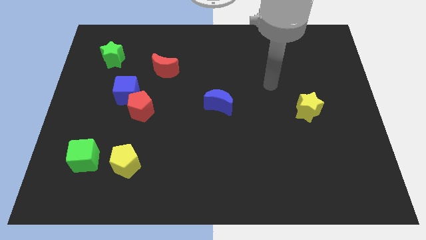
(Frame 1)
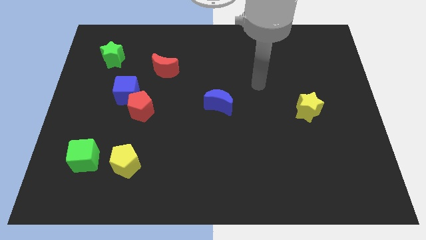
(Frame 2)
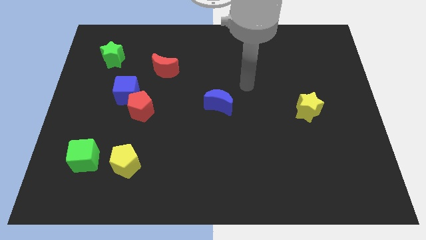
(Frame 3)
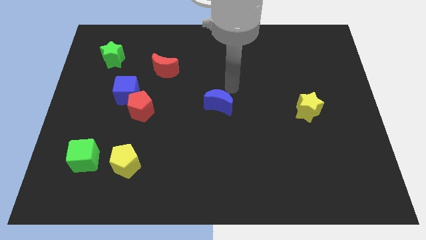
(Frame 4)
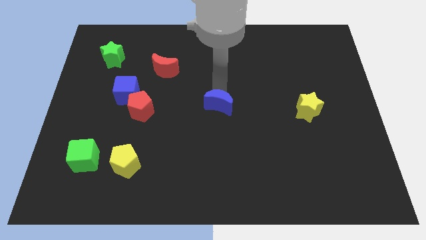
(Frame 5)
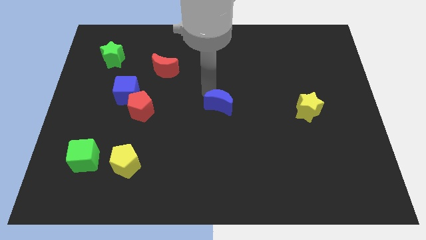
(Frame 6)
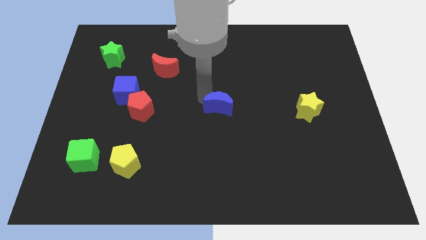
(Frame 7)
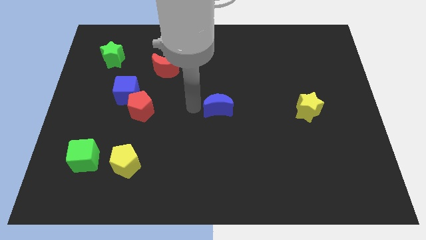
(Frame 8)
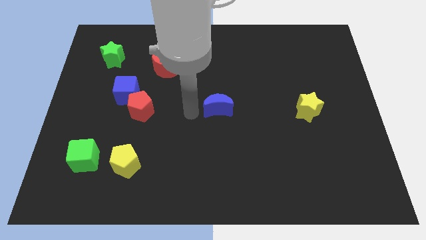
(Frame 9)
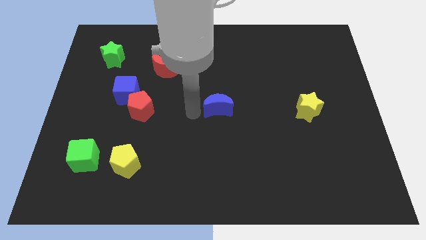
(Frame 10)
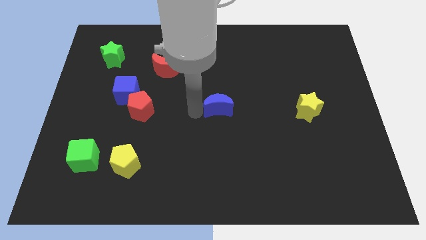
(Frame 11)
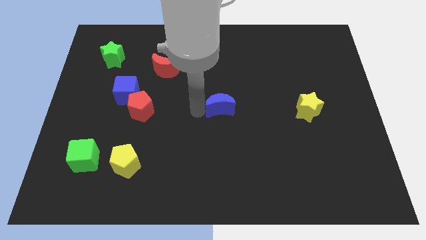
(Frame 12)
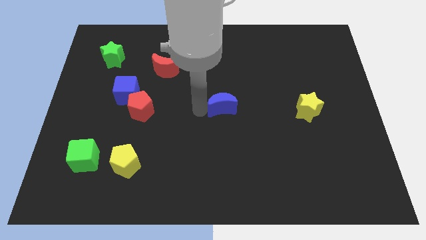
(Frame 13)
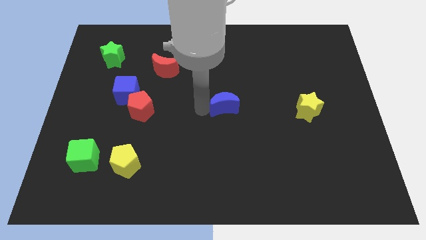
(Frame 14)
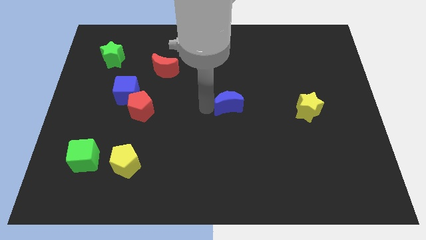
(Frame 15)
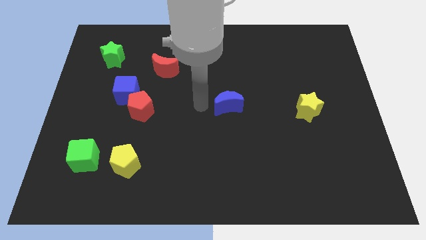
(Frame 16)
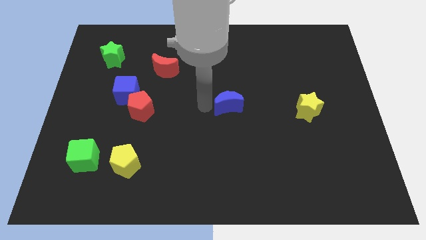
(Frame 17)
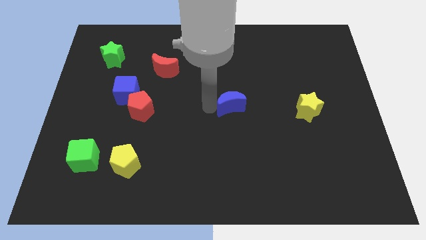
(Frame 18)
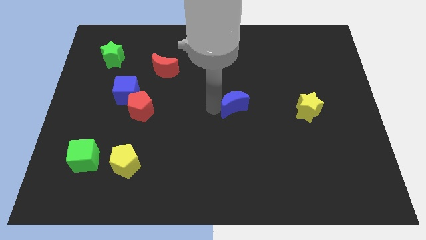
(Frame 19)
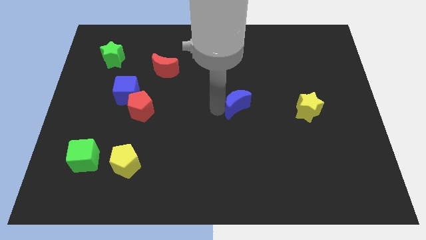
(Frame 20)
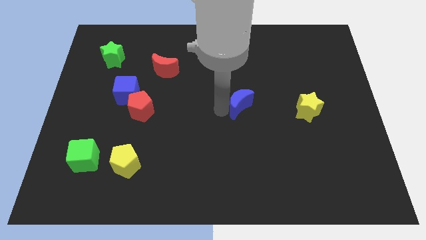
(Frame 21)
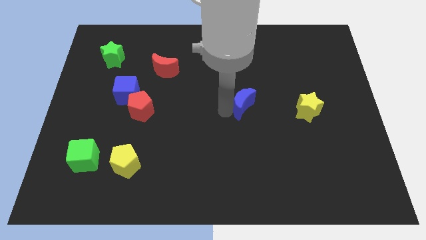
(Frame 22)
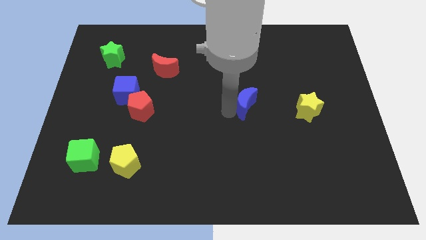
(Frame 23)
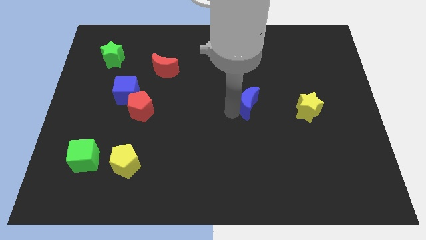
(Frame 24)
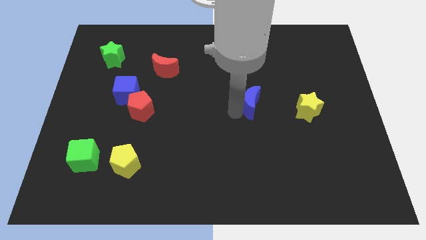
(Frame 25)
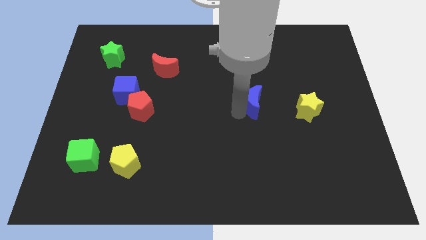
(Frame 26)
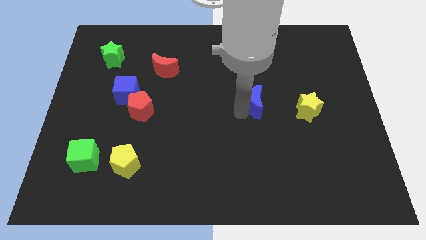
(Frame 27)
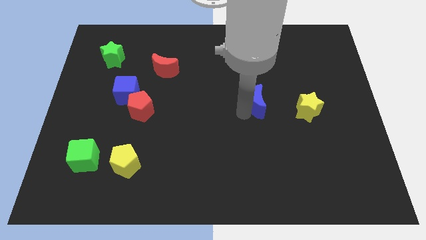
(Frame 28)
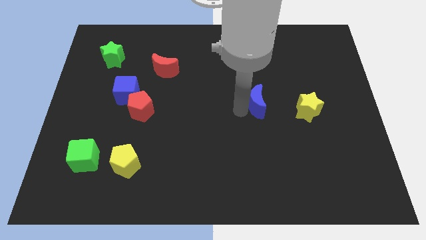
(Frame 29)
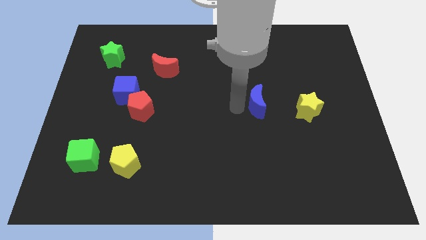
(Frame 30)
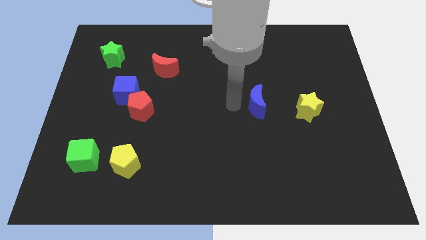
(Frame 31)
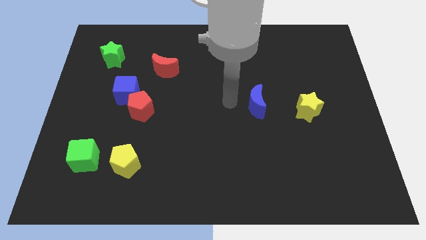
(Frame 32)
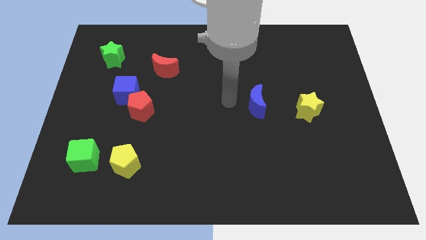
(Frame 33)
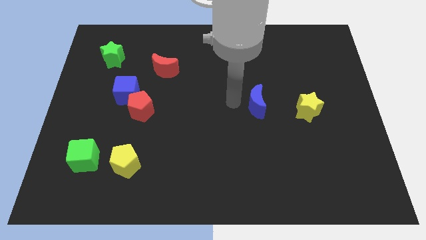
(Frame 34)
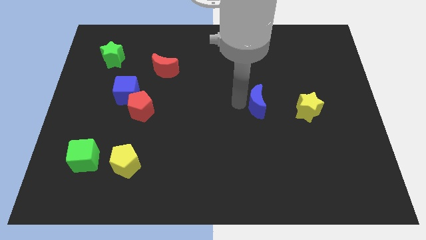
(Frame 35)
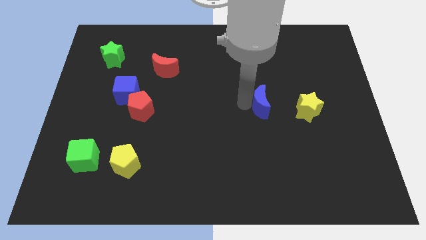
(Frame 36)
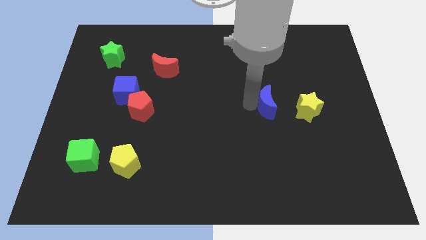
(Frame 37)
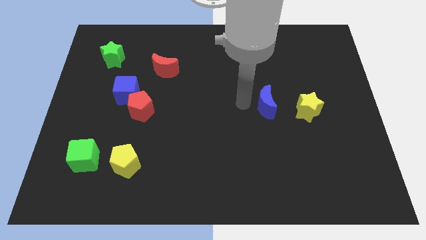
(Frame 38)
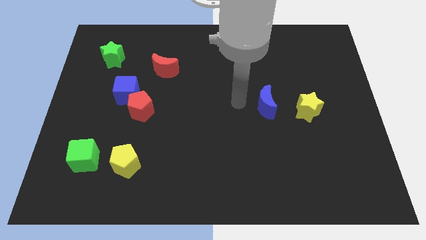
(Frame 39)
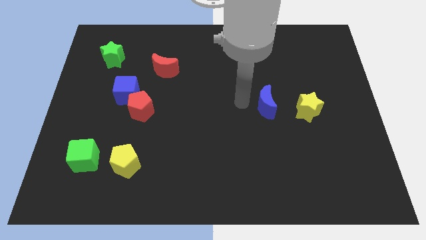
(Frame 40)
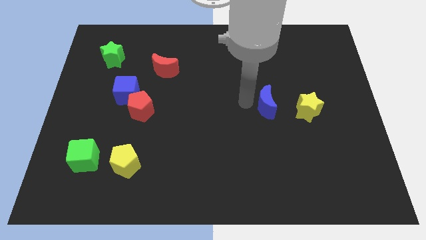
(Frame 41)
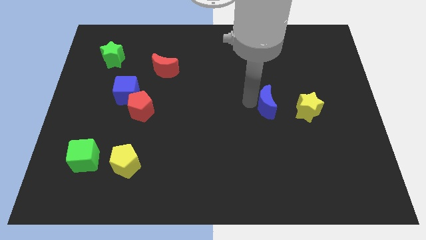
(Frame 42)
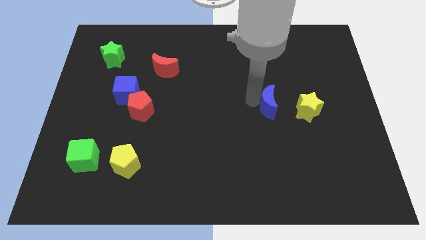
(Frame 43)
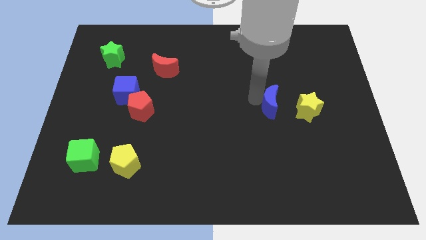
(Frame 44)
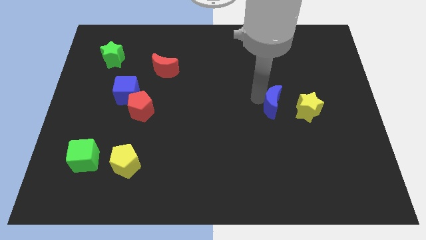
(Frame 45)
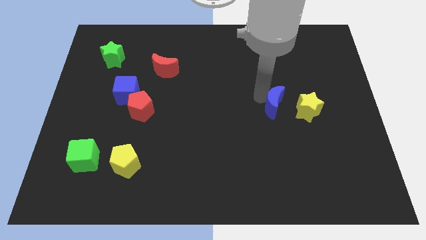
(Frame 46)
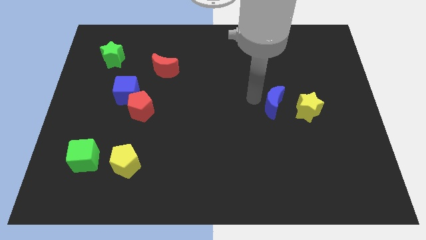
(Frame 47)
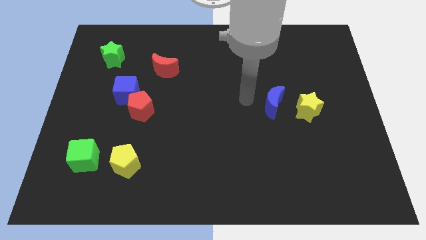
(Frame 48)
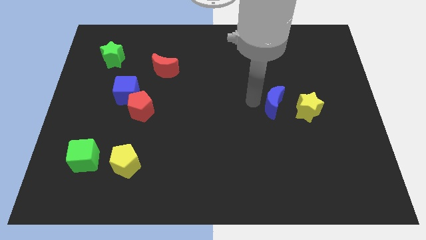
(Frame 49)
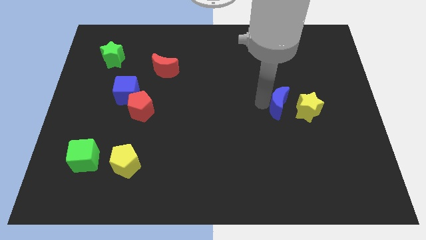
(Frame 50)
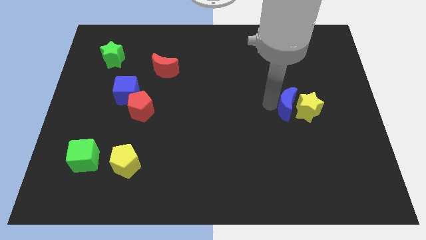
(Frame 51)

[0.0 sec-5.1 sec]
move the blue moon towards the yellow star
